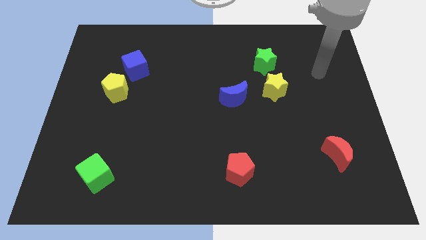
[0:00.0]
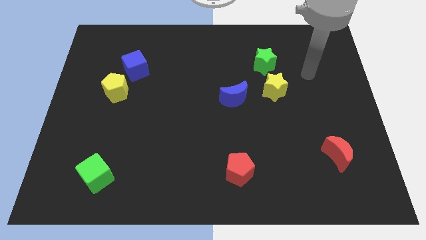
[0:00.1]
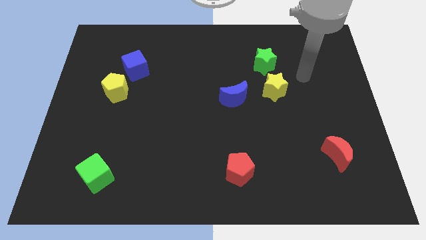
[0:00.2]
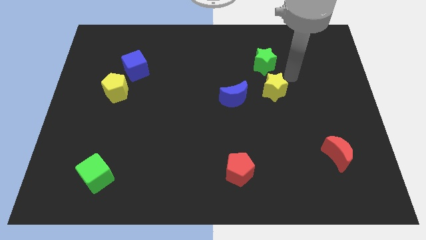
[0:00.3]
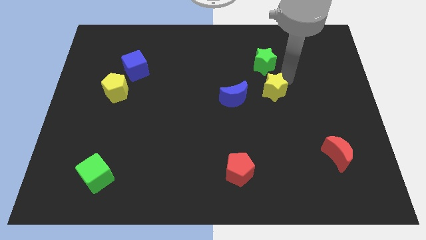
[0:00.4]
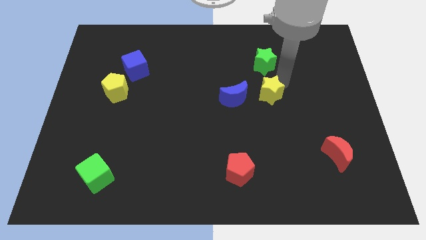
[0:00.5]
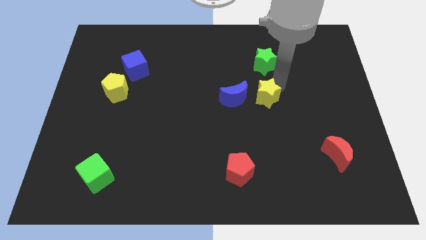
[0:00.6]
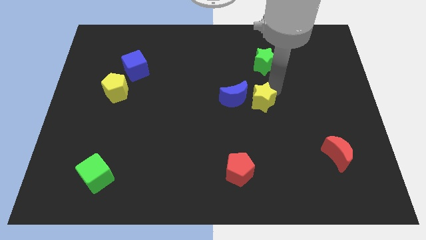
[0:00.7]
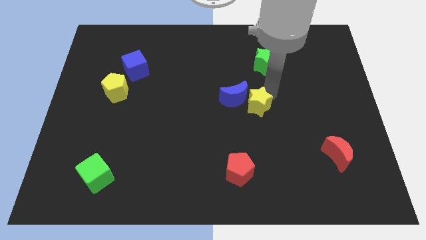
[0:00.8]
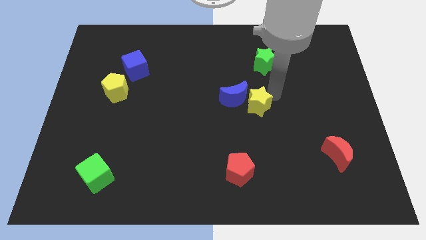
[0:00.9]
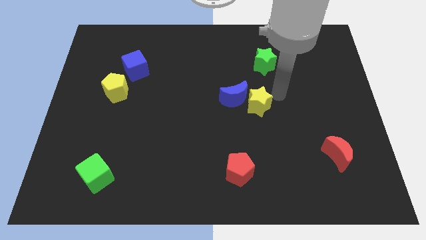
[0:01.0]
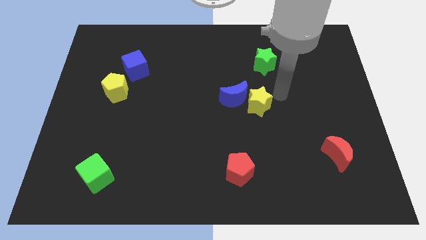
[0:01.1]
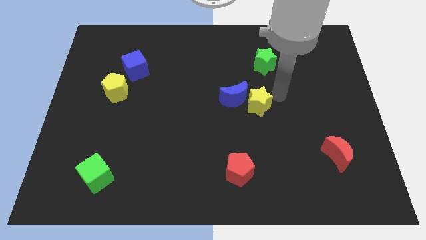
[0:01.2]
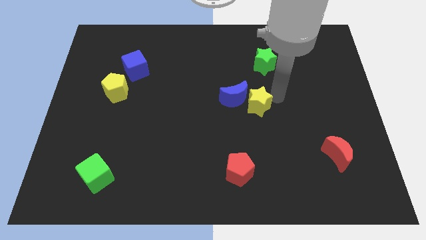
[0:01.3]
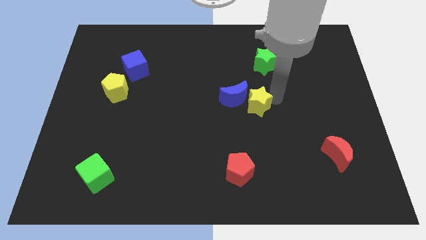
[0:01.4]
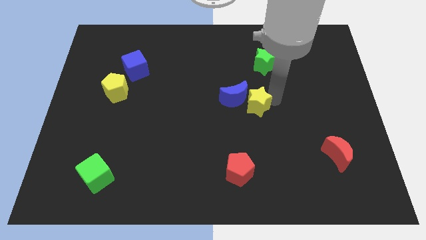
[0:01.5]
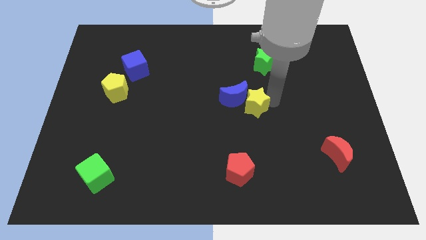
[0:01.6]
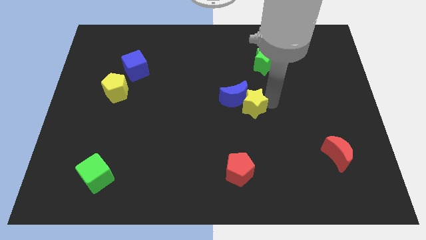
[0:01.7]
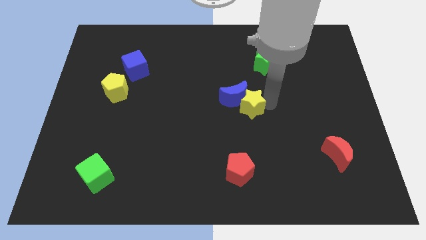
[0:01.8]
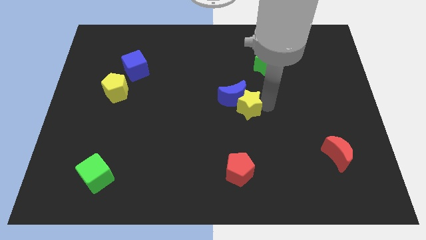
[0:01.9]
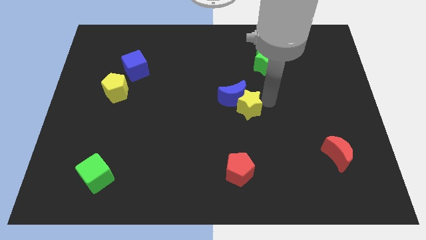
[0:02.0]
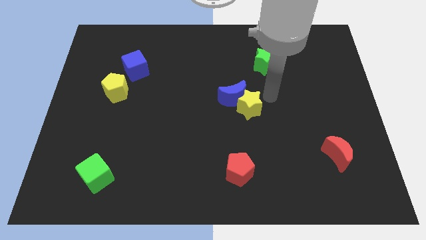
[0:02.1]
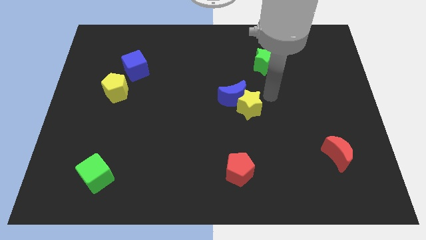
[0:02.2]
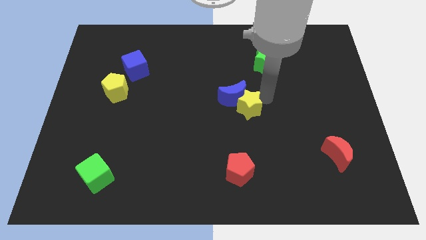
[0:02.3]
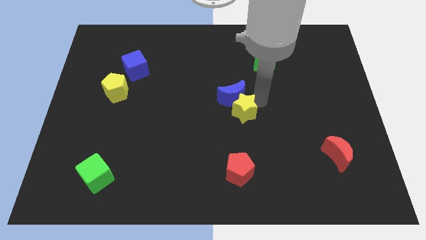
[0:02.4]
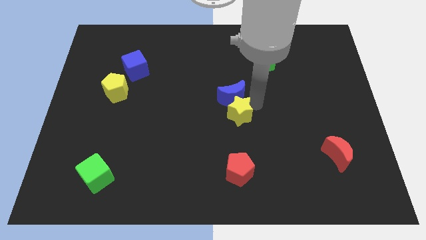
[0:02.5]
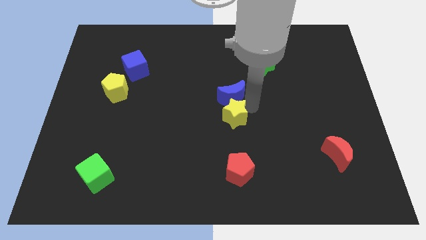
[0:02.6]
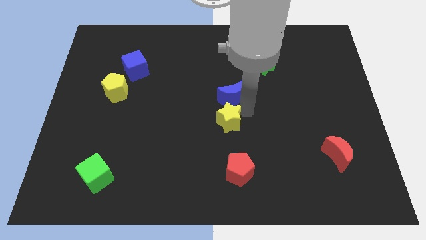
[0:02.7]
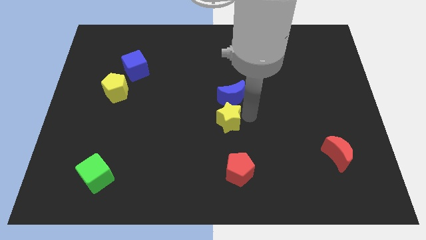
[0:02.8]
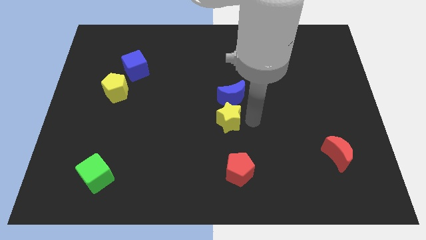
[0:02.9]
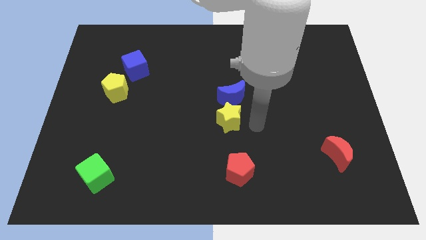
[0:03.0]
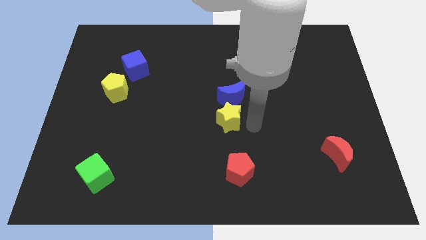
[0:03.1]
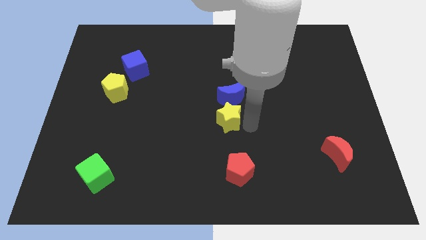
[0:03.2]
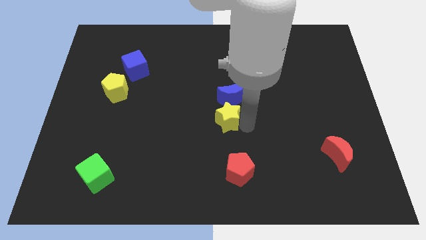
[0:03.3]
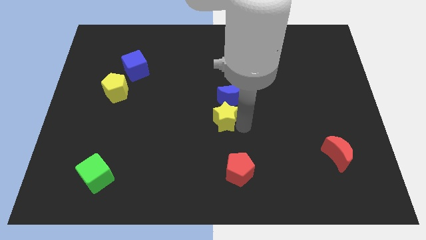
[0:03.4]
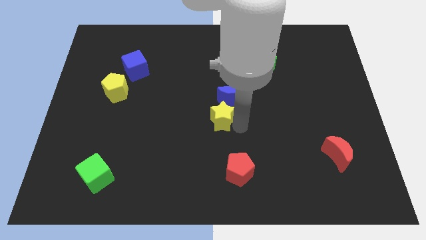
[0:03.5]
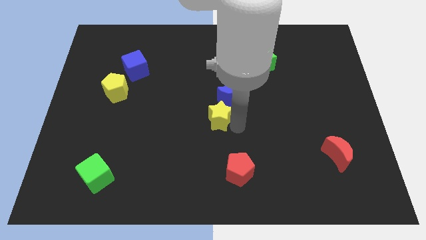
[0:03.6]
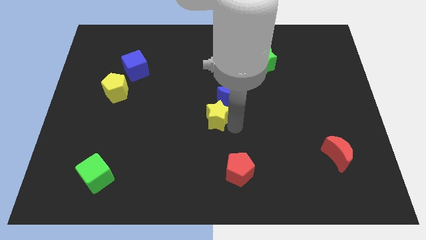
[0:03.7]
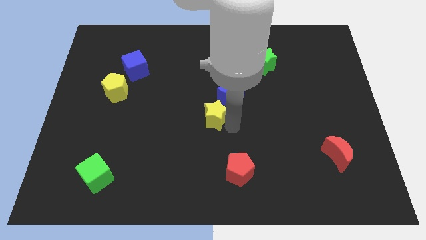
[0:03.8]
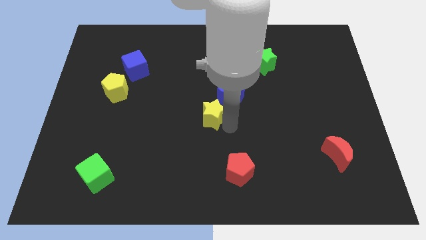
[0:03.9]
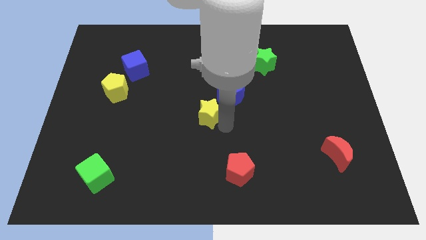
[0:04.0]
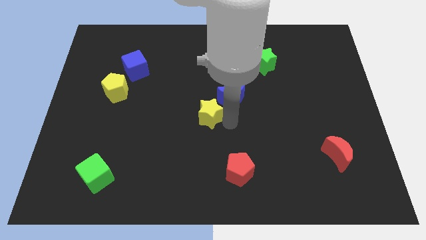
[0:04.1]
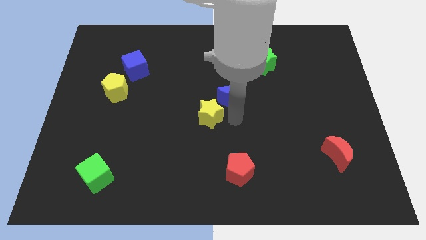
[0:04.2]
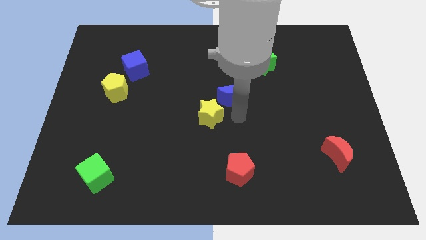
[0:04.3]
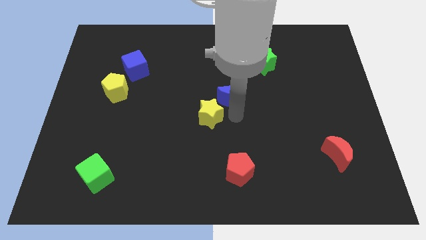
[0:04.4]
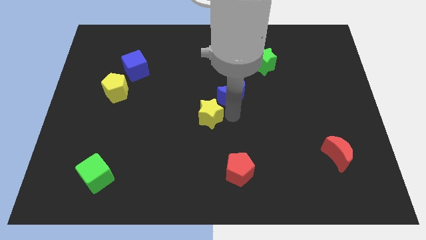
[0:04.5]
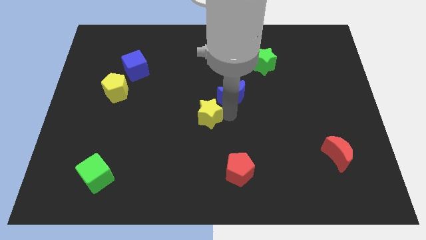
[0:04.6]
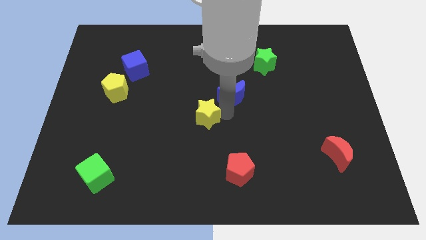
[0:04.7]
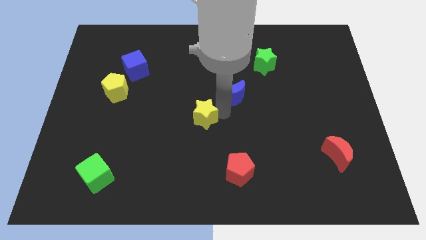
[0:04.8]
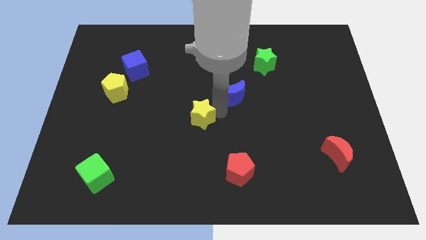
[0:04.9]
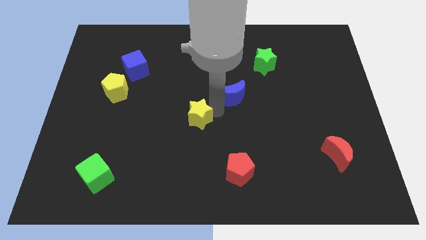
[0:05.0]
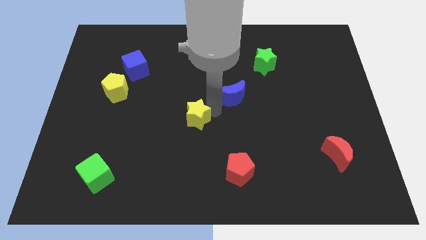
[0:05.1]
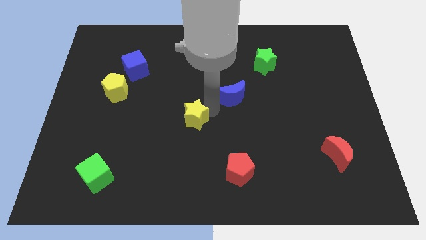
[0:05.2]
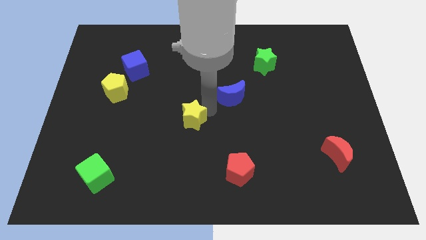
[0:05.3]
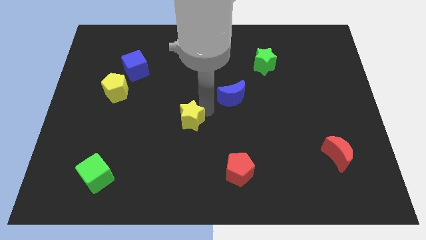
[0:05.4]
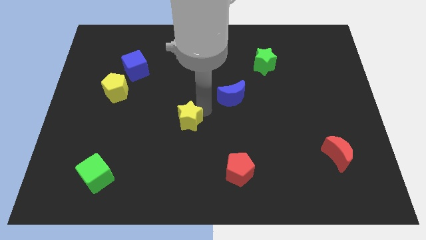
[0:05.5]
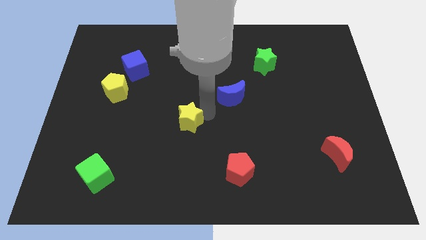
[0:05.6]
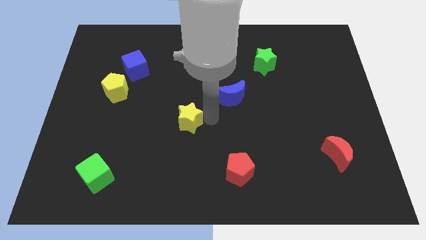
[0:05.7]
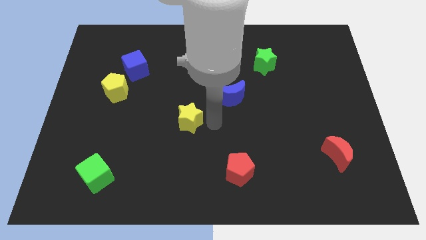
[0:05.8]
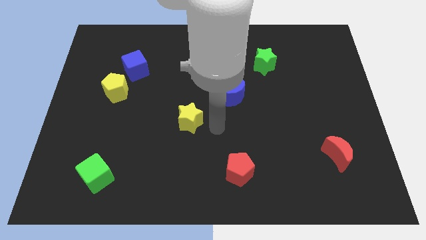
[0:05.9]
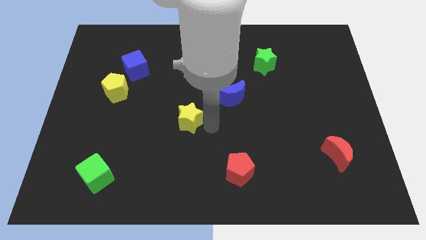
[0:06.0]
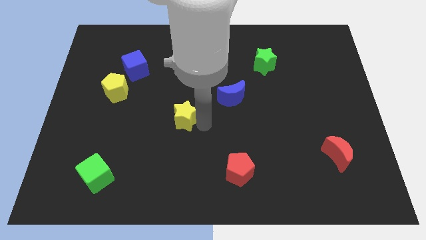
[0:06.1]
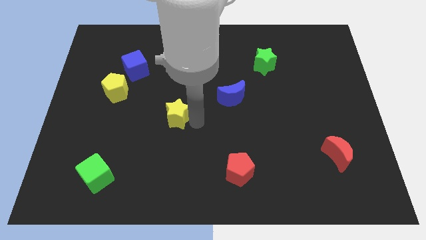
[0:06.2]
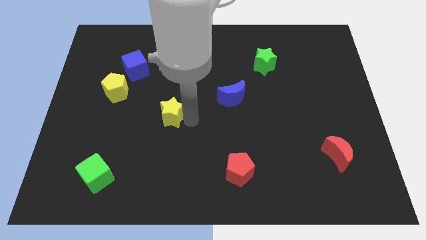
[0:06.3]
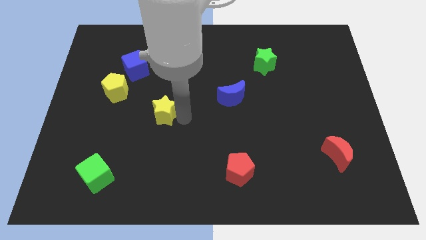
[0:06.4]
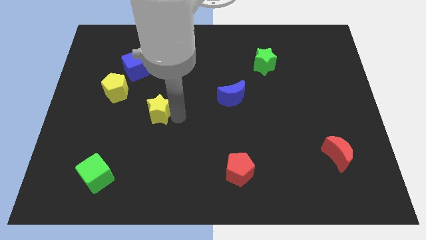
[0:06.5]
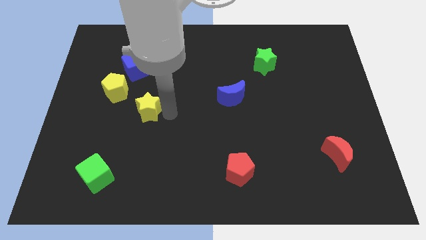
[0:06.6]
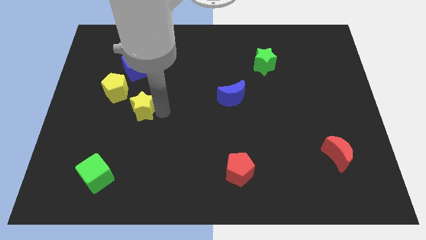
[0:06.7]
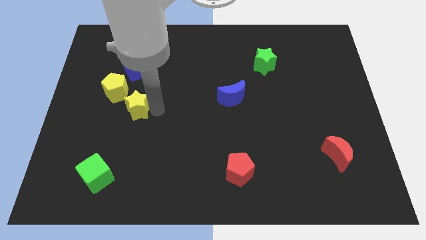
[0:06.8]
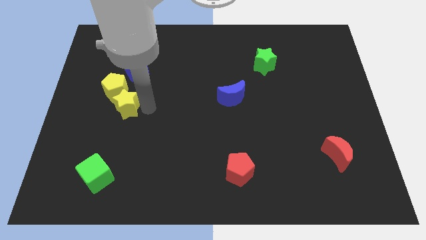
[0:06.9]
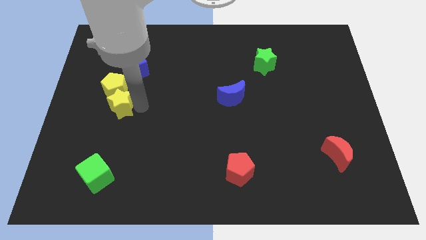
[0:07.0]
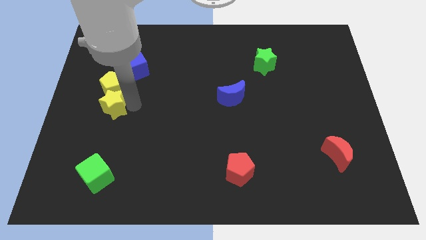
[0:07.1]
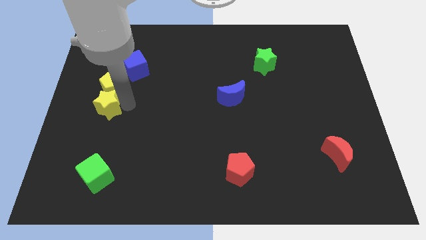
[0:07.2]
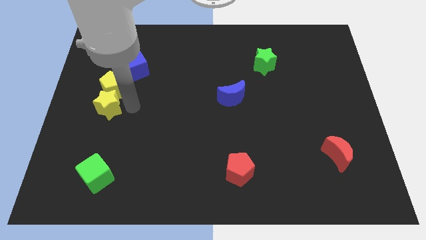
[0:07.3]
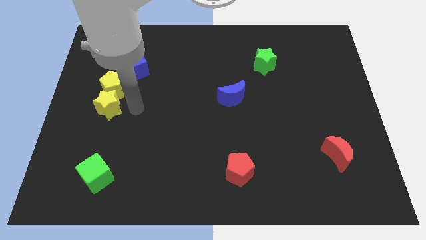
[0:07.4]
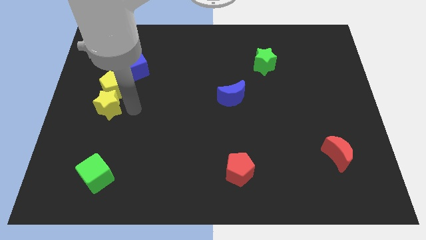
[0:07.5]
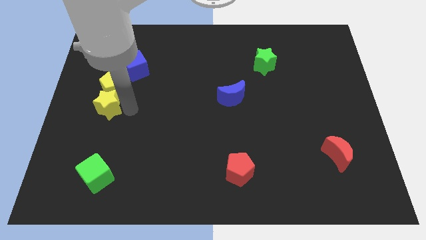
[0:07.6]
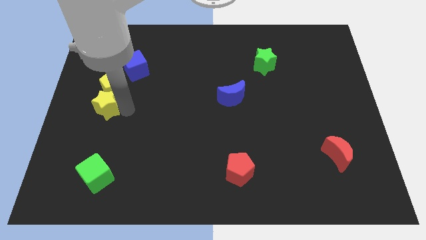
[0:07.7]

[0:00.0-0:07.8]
put the yellow star to the center left
